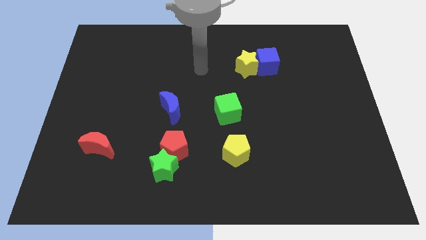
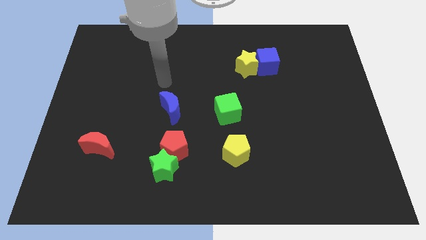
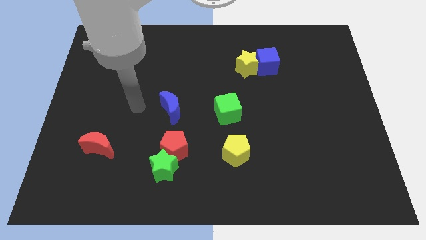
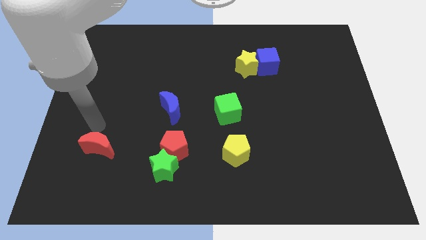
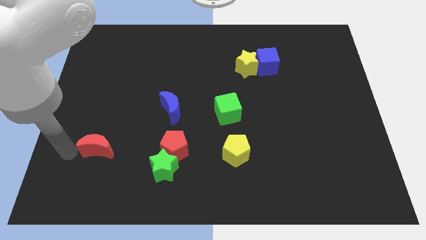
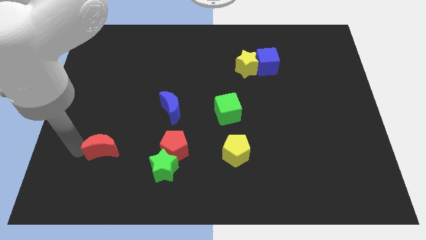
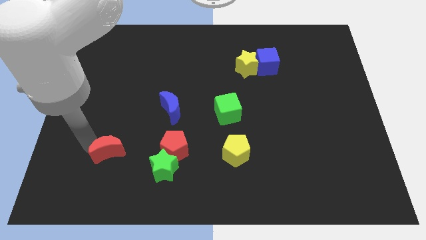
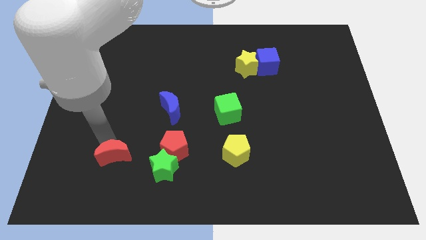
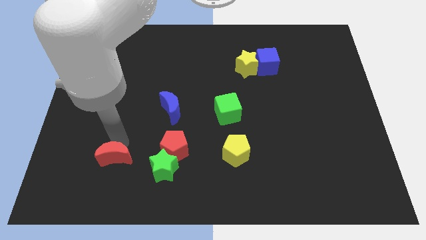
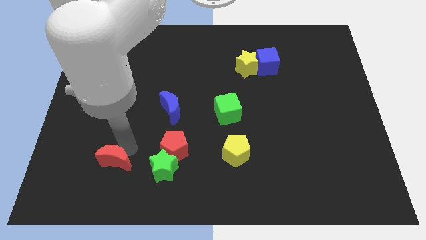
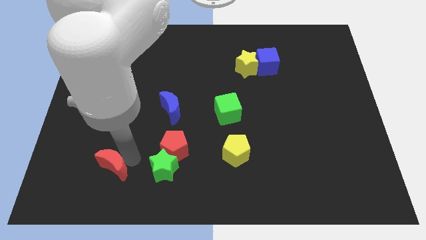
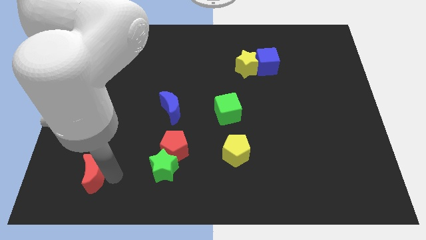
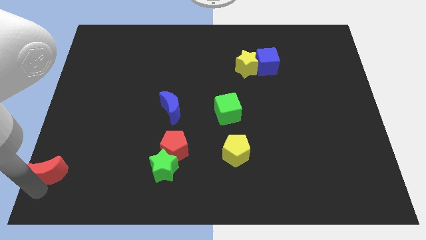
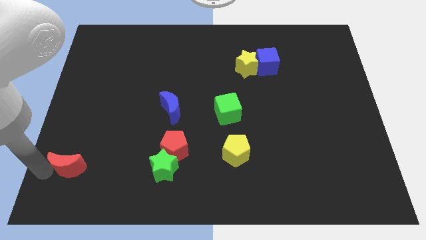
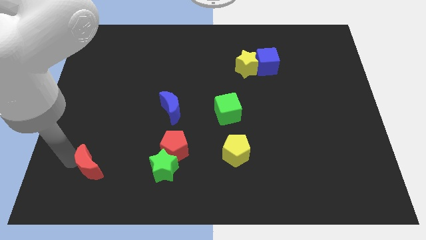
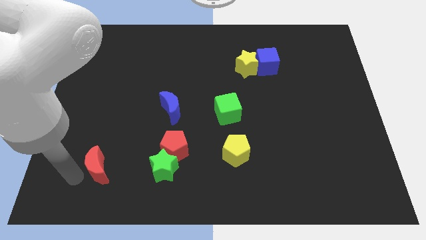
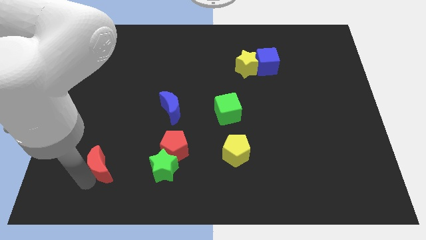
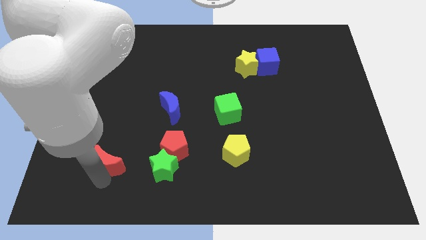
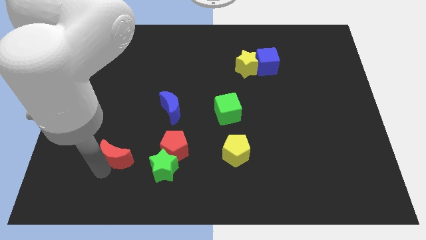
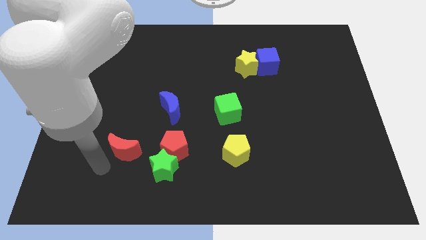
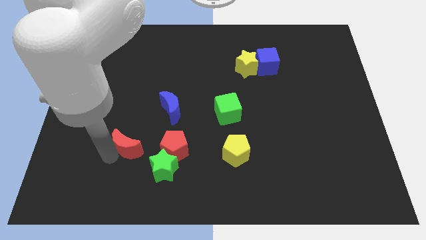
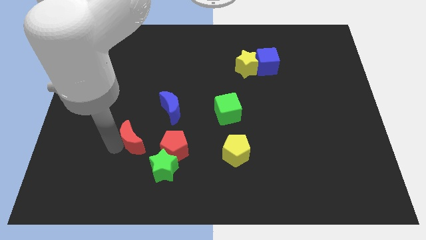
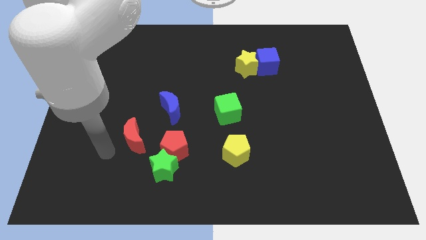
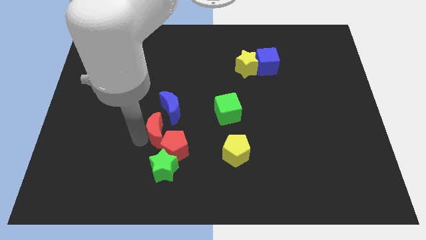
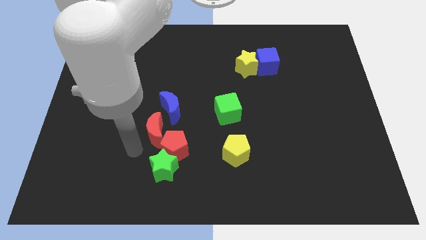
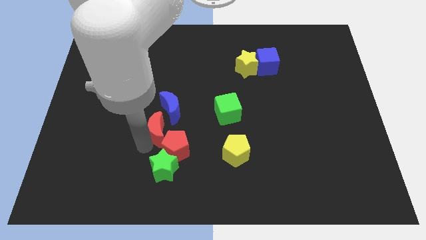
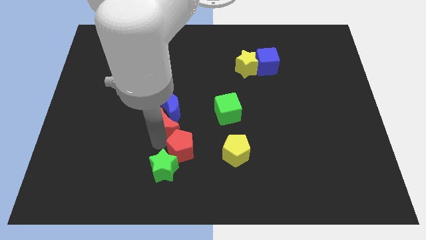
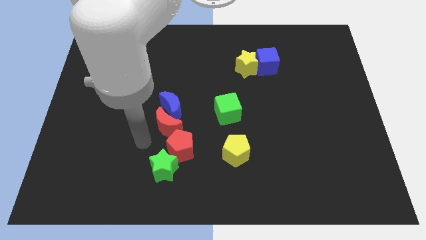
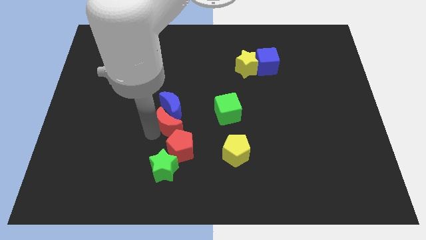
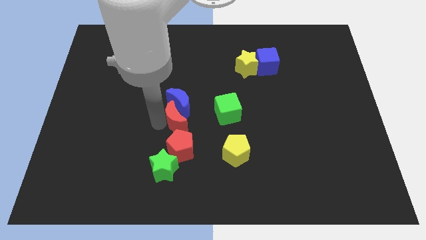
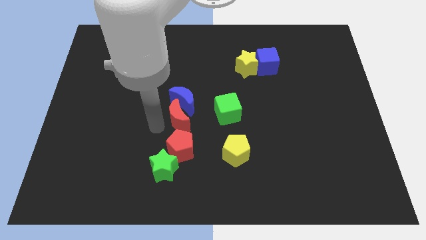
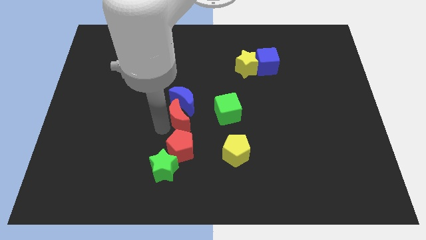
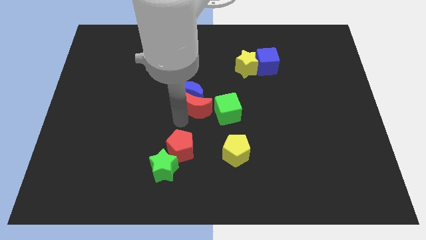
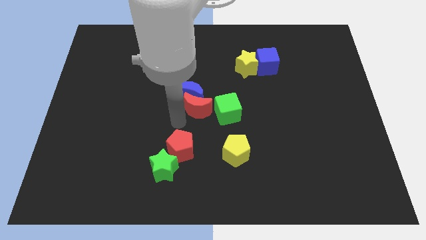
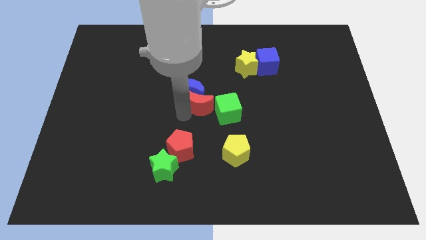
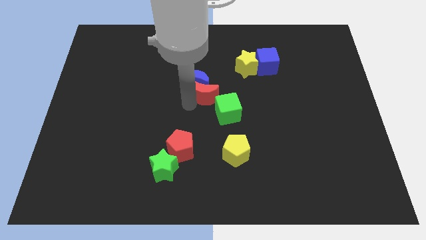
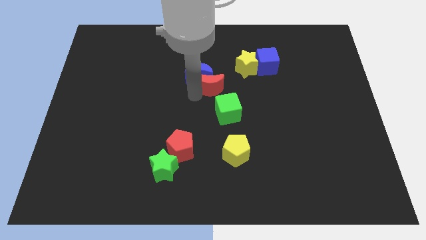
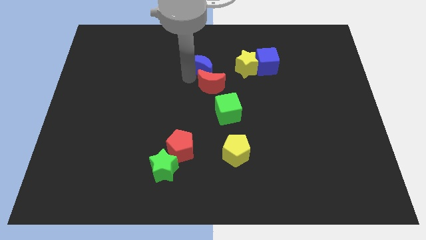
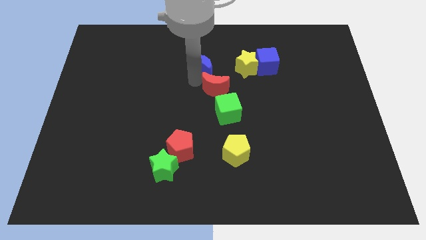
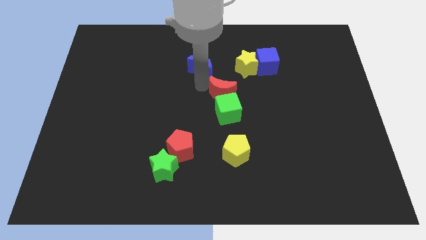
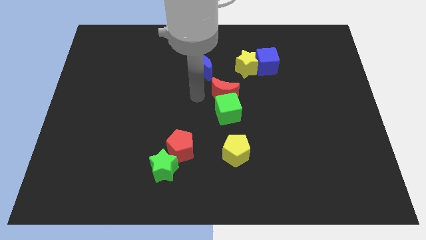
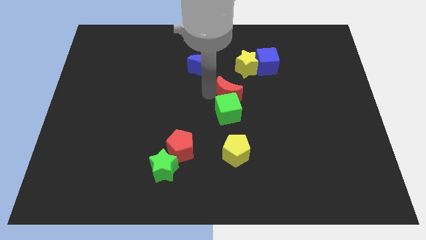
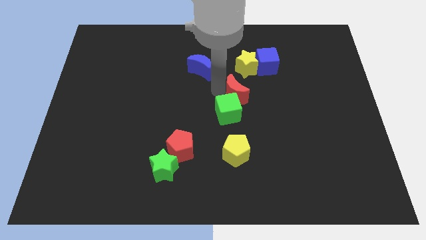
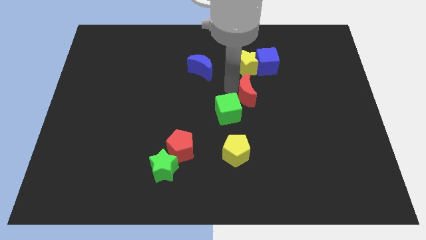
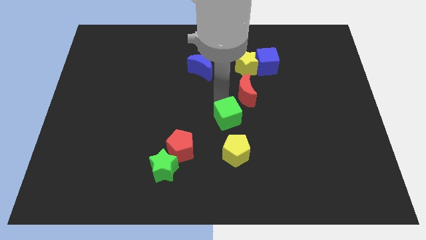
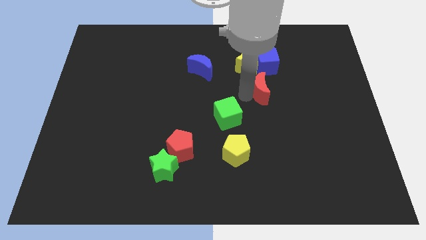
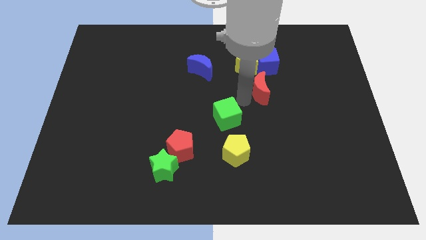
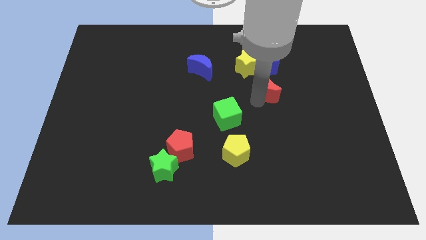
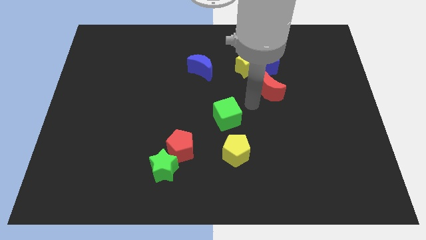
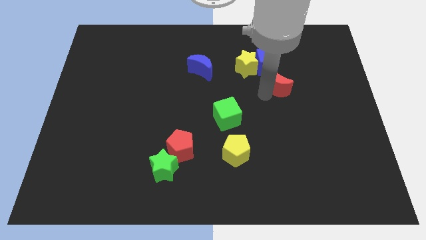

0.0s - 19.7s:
slide the red moon to the bottom right side of the blue cube

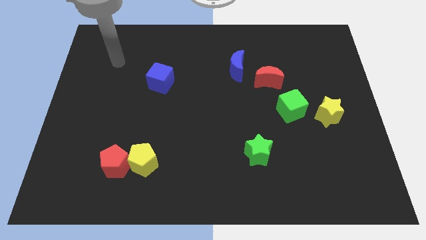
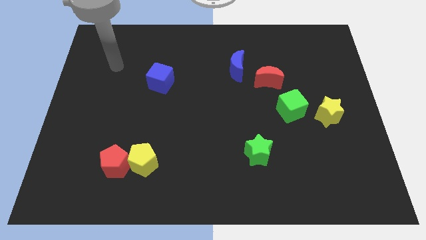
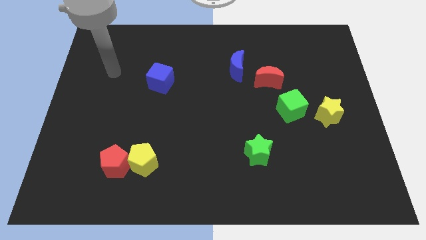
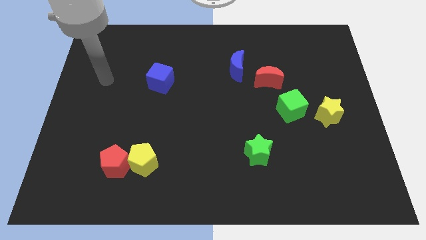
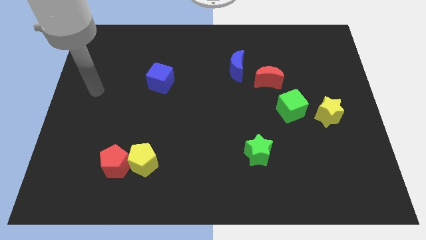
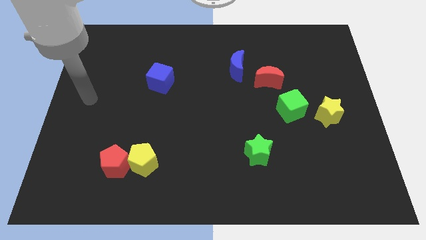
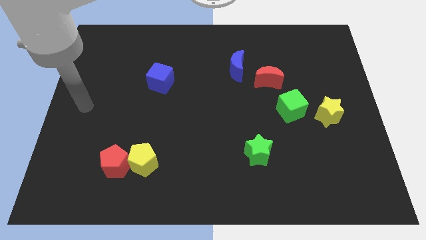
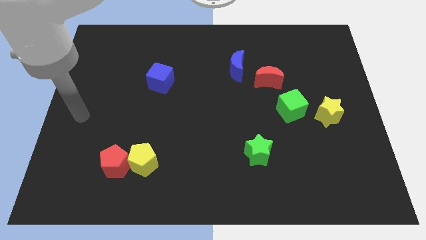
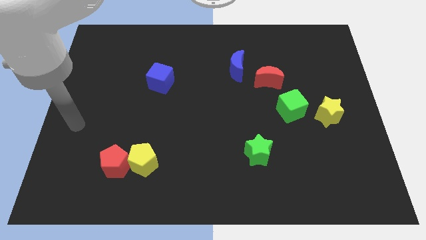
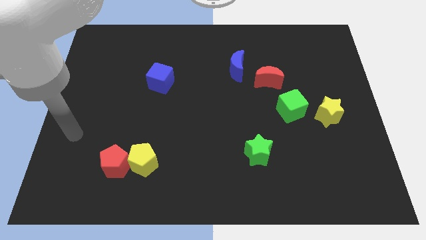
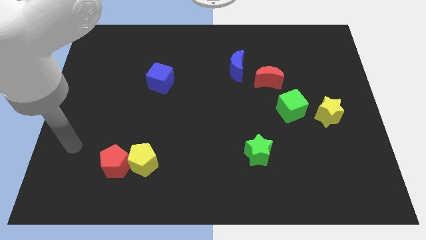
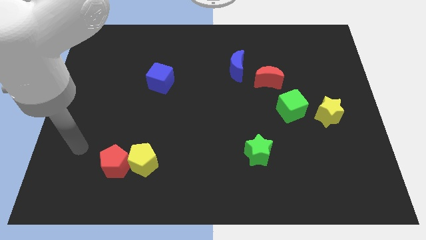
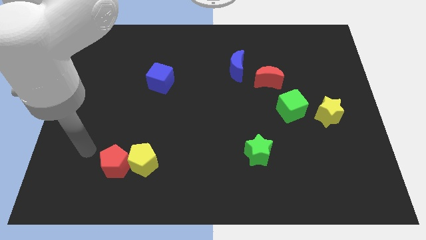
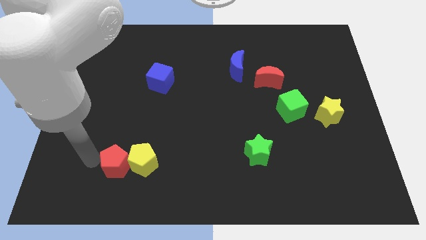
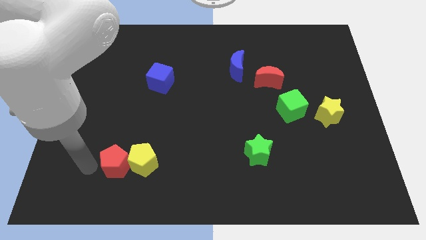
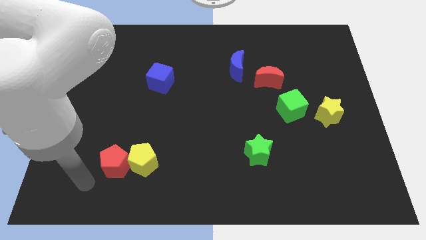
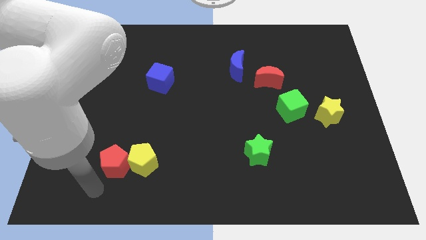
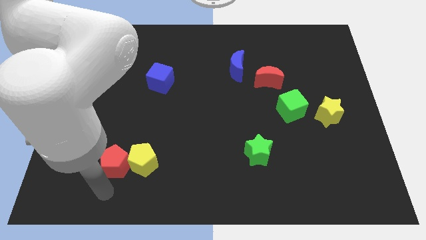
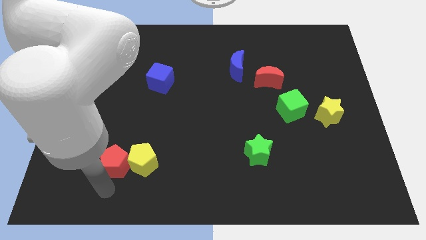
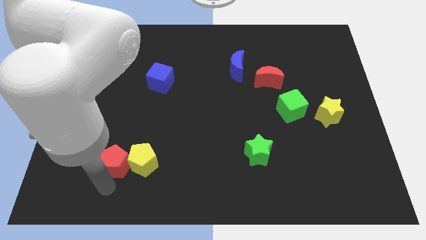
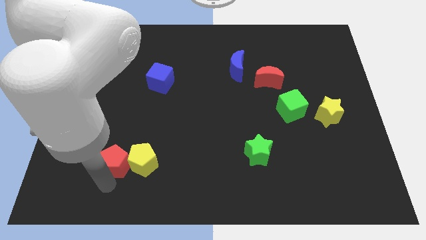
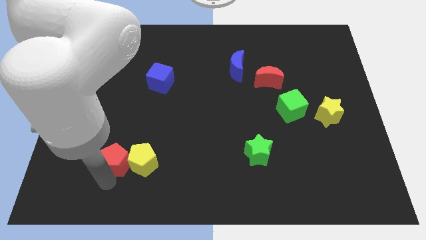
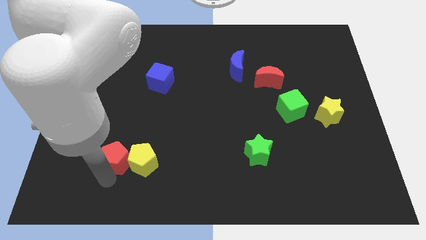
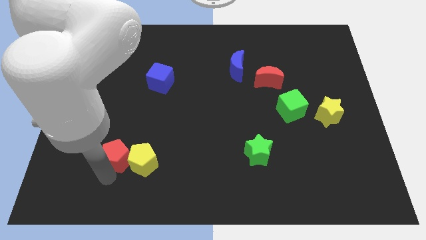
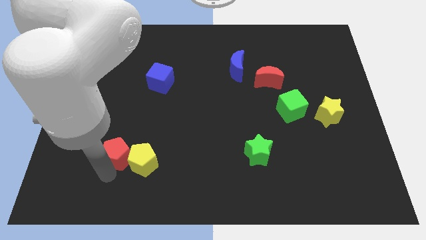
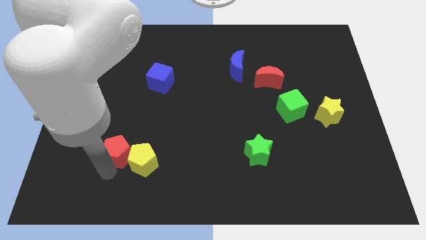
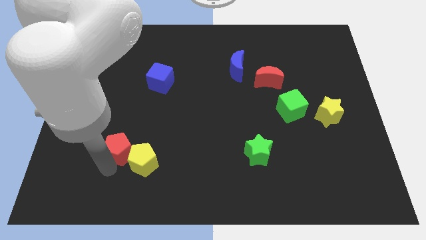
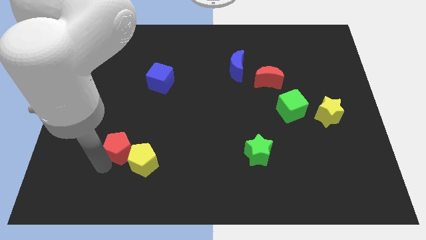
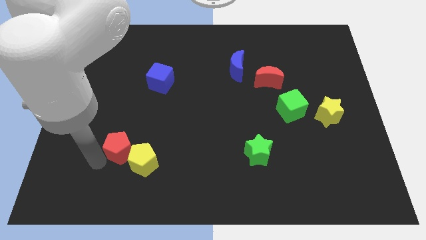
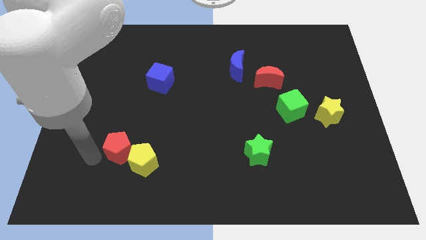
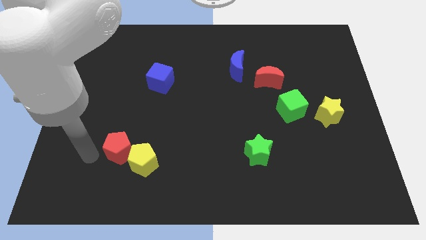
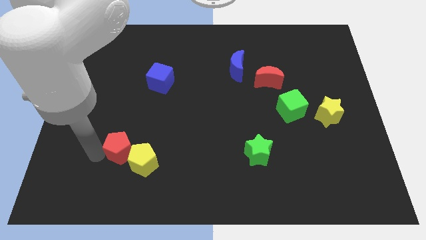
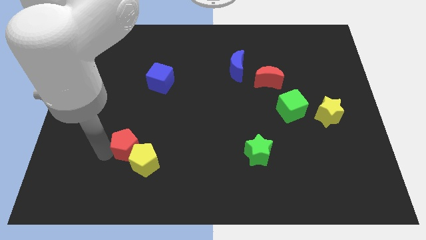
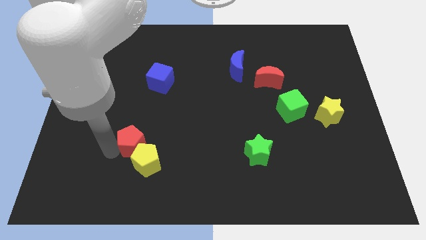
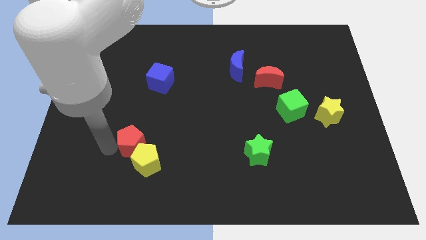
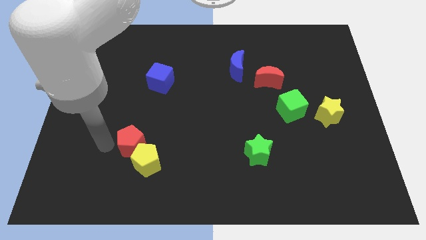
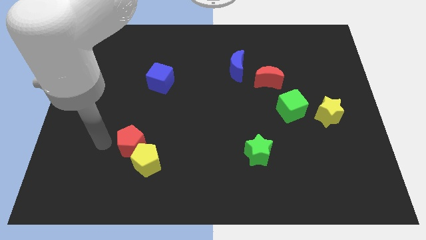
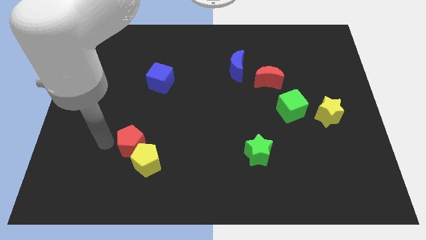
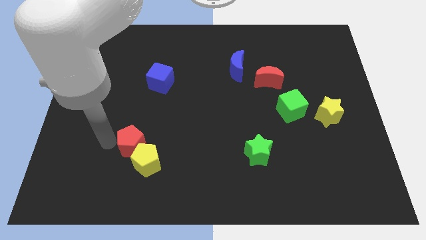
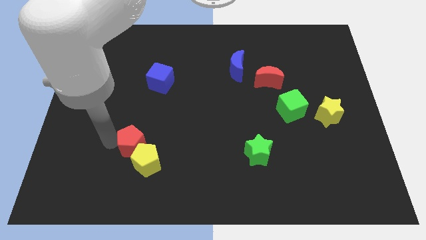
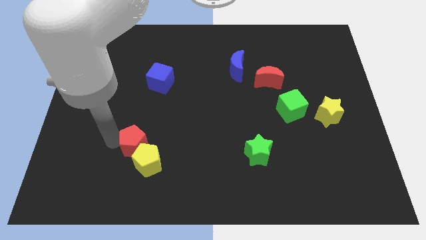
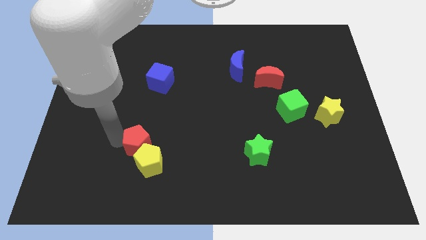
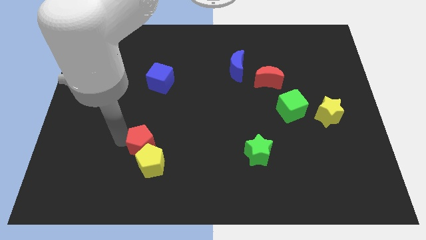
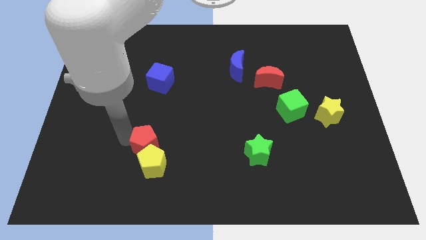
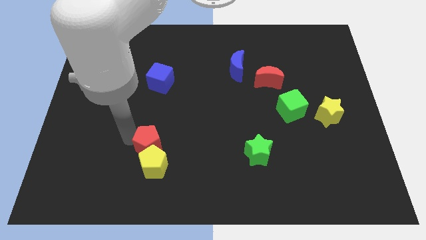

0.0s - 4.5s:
push the red pentagon to the top right of the yellow pentagon
